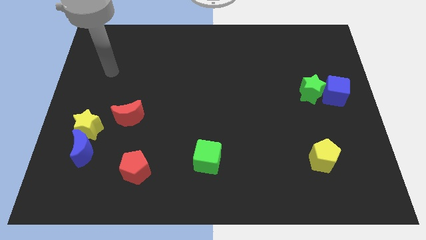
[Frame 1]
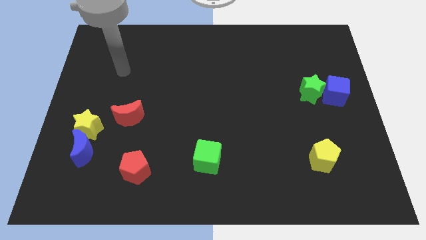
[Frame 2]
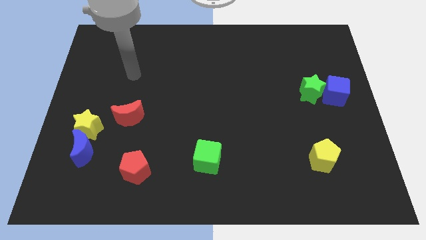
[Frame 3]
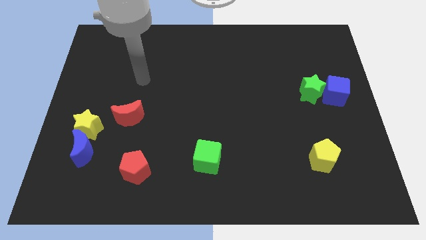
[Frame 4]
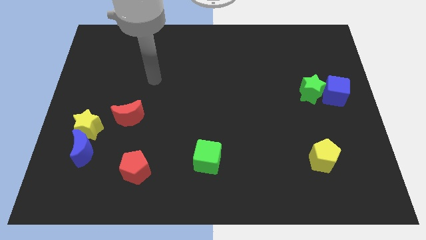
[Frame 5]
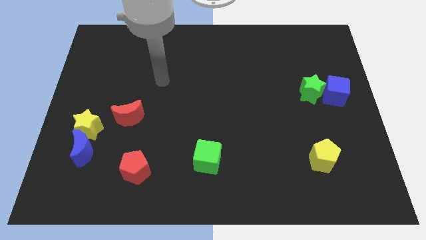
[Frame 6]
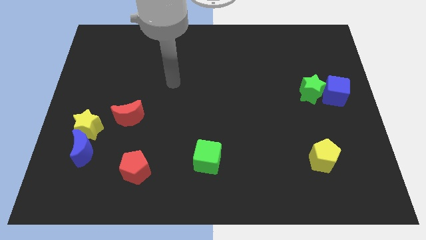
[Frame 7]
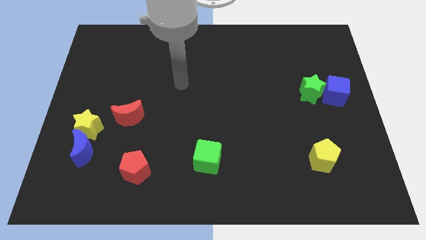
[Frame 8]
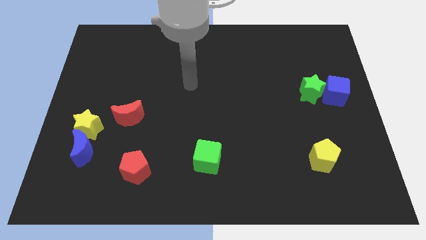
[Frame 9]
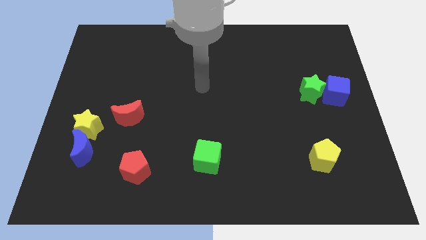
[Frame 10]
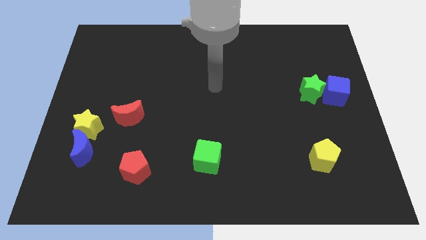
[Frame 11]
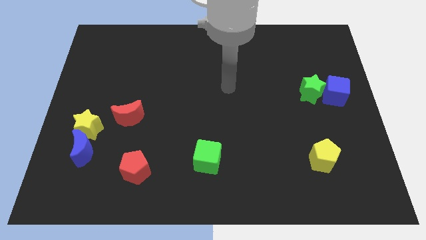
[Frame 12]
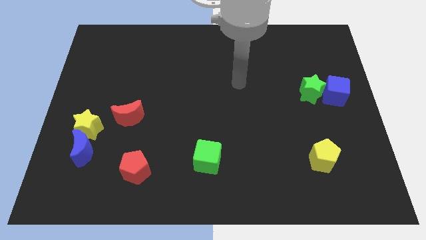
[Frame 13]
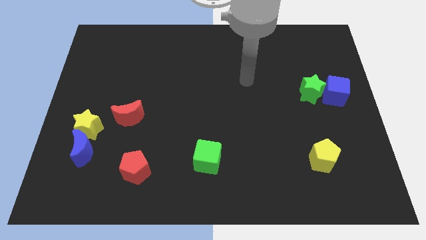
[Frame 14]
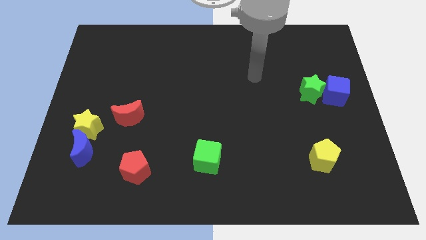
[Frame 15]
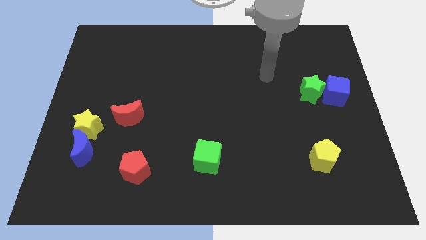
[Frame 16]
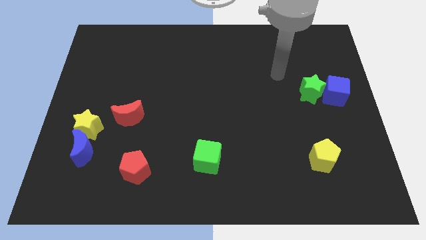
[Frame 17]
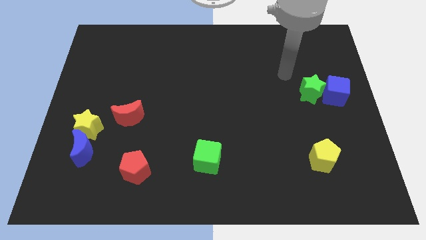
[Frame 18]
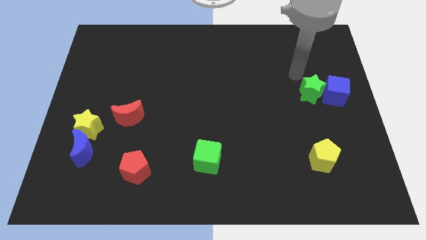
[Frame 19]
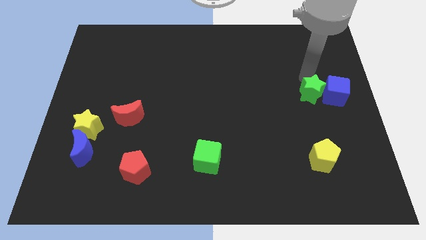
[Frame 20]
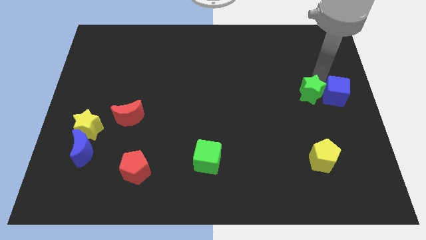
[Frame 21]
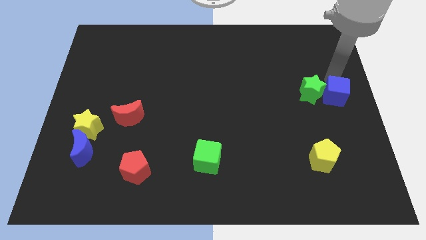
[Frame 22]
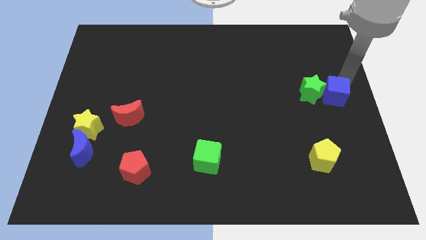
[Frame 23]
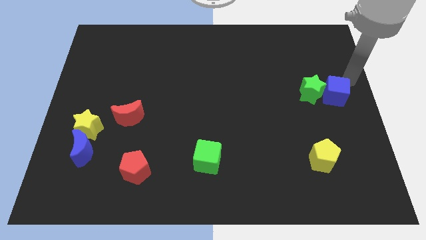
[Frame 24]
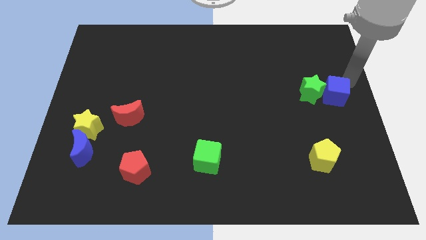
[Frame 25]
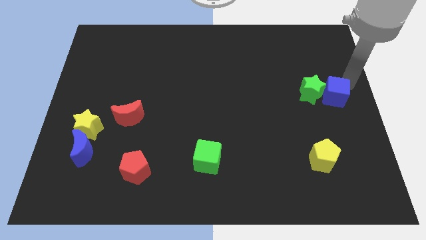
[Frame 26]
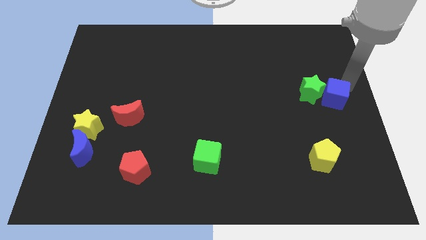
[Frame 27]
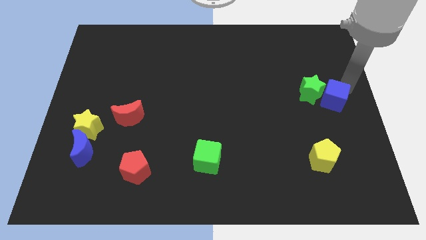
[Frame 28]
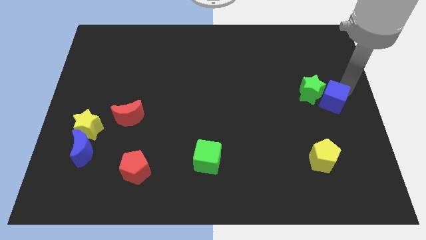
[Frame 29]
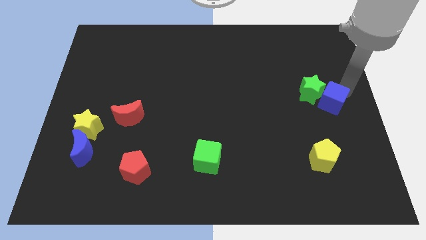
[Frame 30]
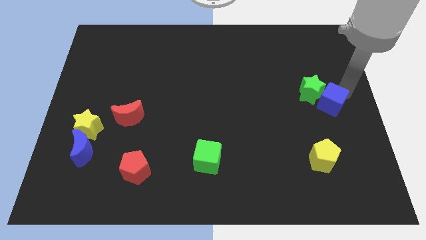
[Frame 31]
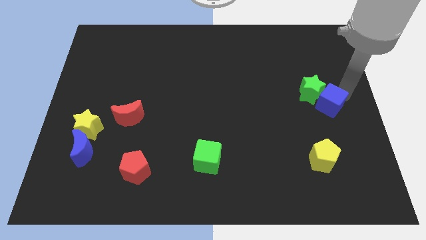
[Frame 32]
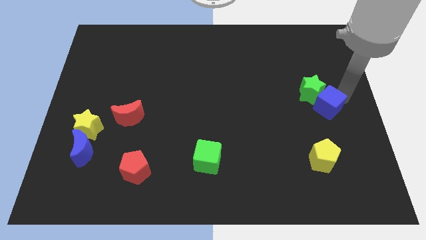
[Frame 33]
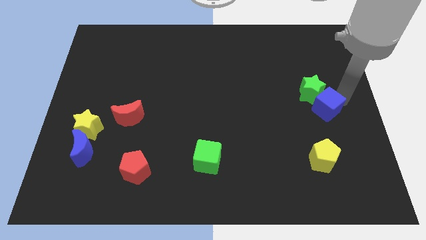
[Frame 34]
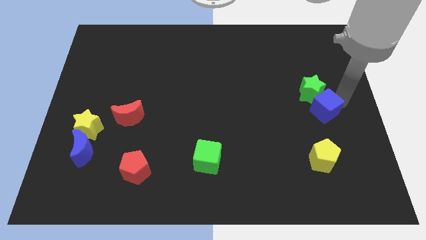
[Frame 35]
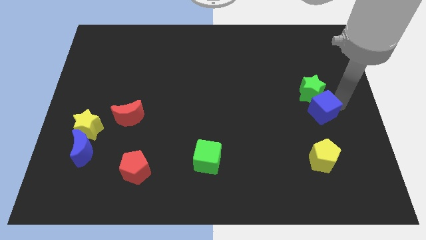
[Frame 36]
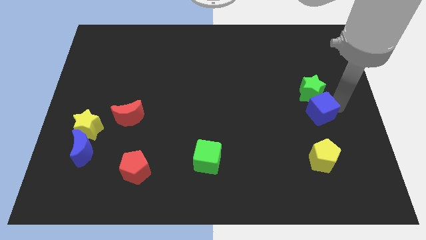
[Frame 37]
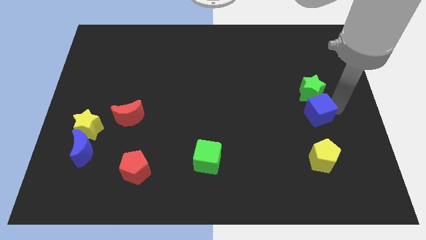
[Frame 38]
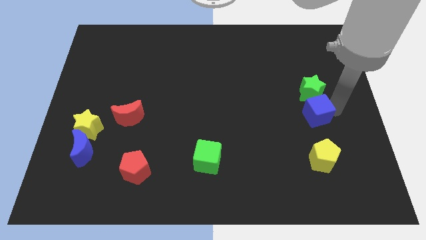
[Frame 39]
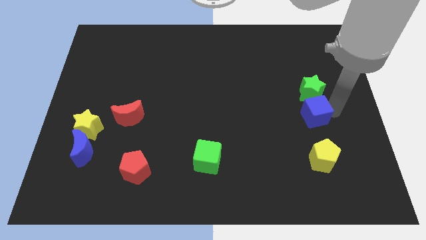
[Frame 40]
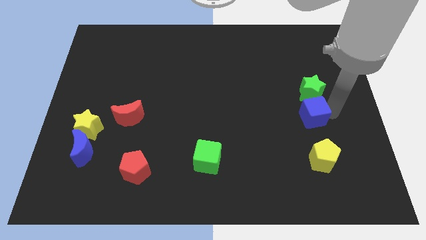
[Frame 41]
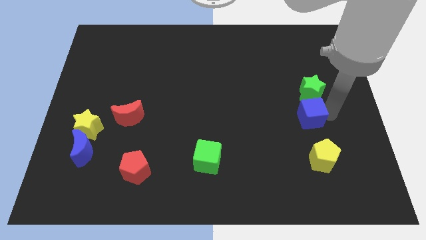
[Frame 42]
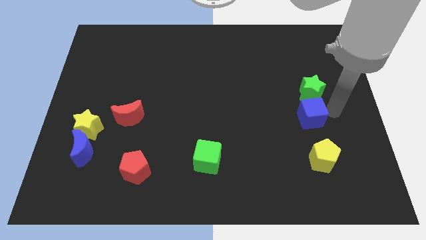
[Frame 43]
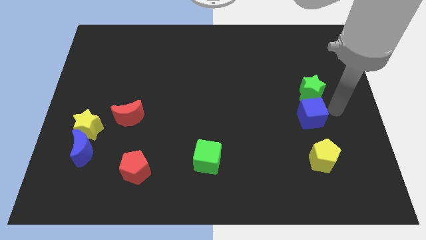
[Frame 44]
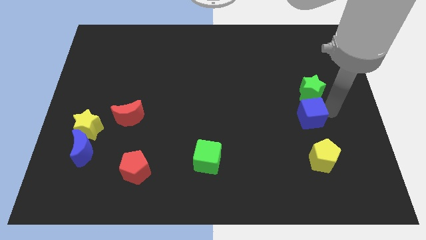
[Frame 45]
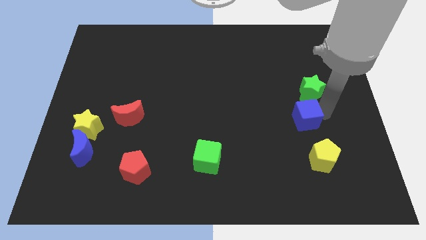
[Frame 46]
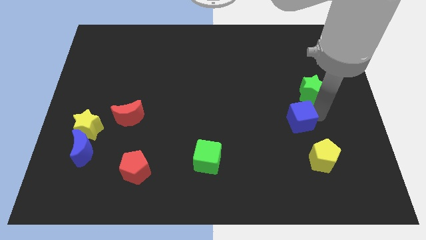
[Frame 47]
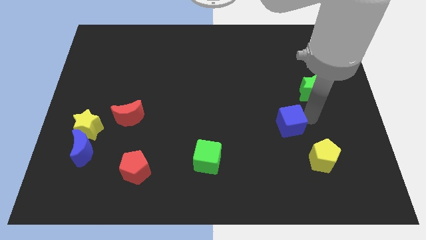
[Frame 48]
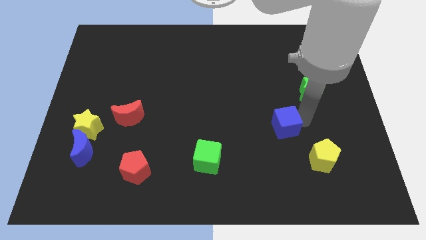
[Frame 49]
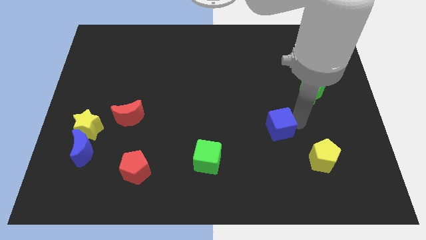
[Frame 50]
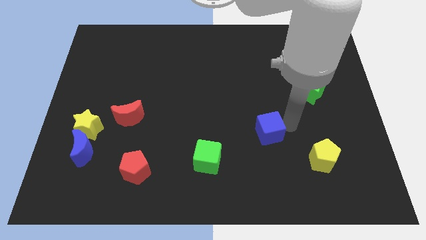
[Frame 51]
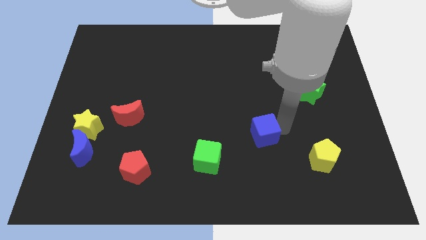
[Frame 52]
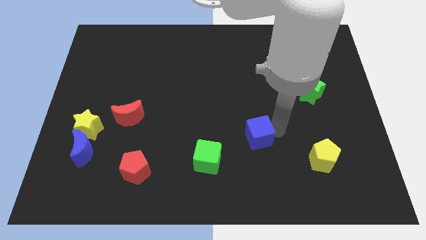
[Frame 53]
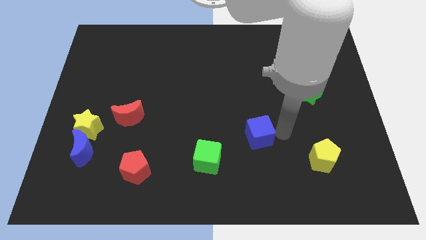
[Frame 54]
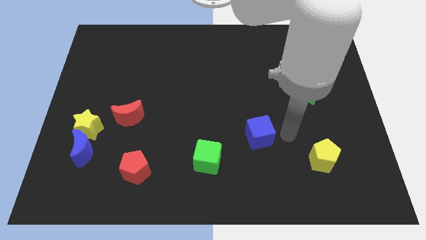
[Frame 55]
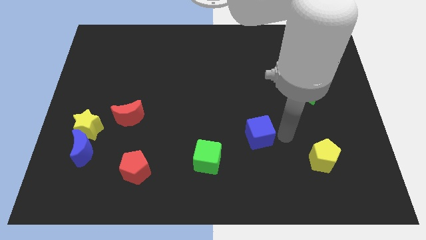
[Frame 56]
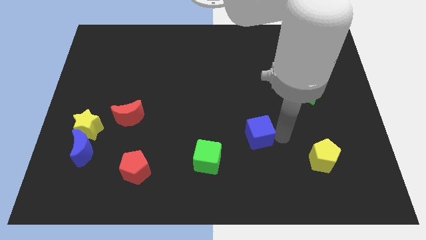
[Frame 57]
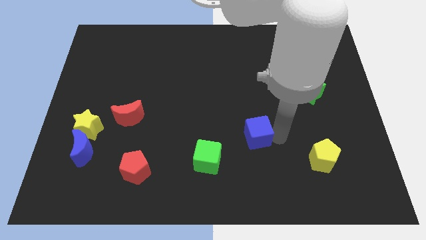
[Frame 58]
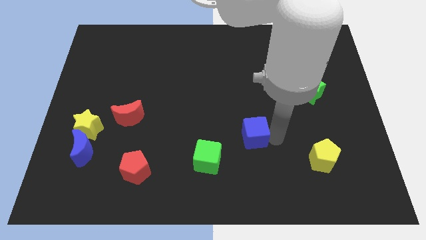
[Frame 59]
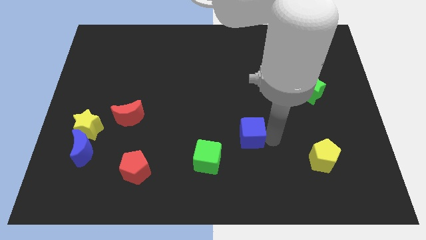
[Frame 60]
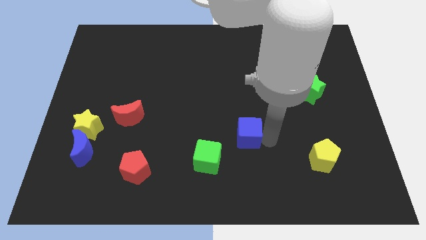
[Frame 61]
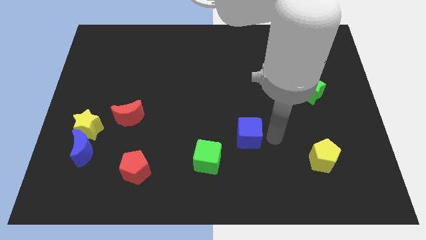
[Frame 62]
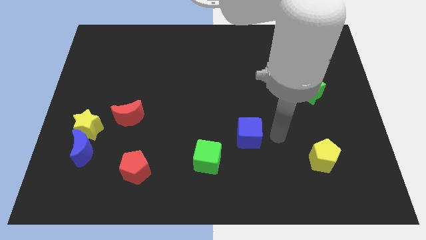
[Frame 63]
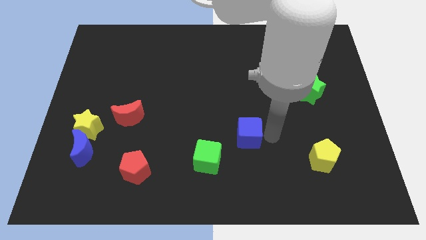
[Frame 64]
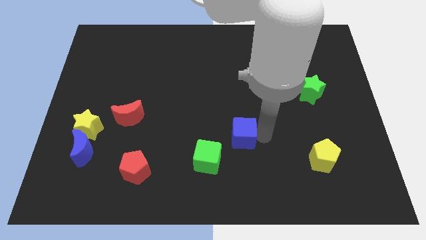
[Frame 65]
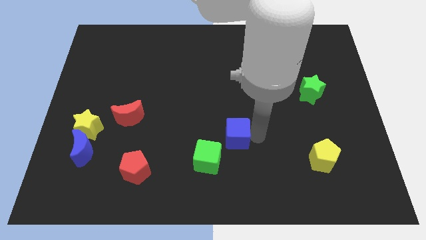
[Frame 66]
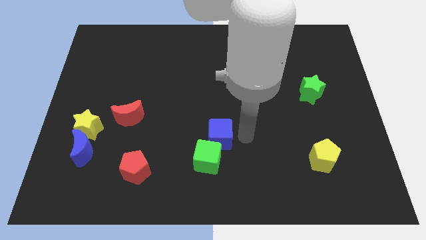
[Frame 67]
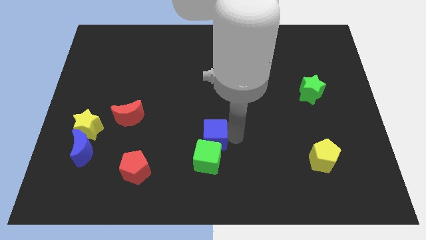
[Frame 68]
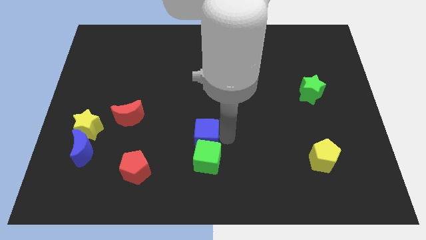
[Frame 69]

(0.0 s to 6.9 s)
slide the blue cube diagonally up and to the left of the green cube
